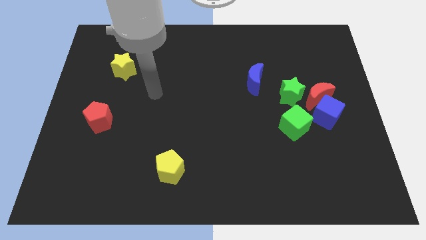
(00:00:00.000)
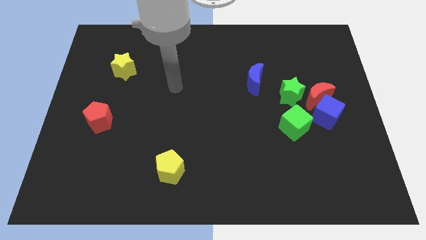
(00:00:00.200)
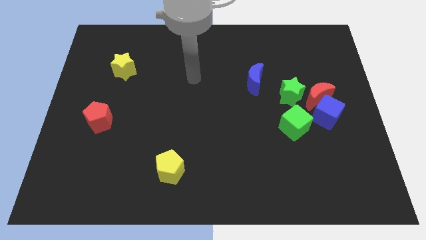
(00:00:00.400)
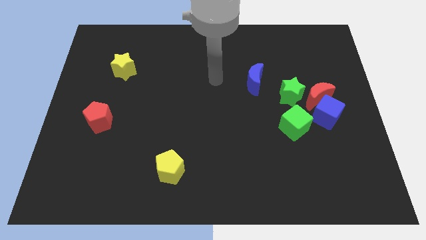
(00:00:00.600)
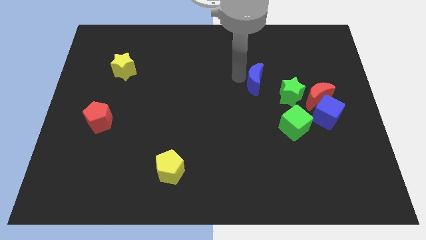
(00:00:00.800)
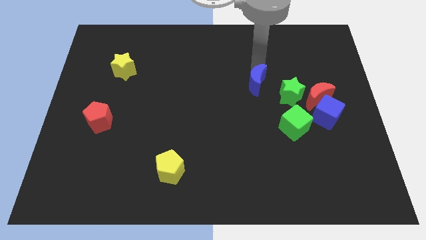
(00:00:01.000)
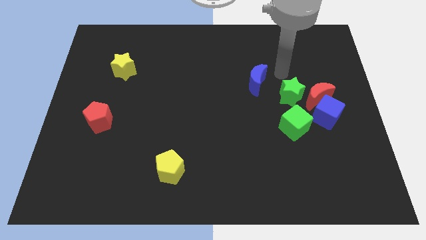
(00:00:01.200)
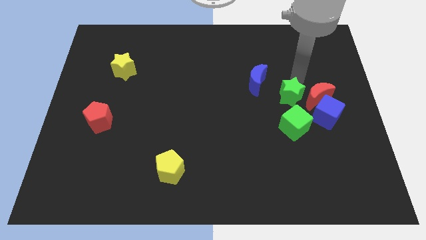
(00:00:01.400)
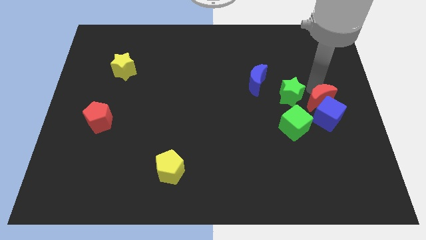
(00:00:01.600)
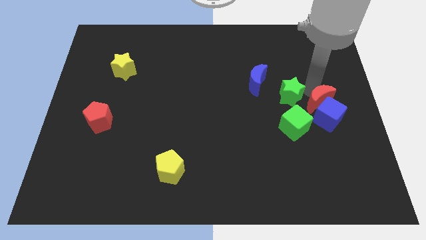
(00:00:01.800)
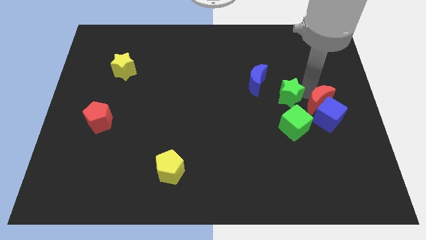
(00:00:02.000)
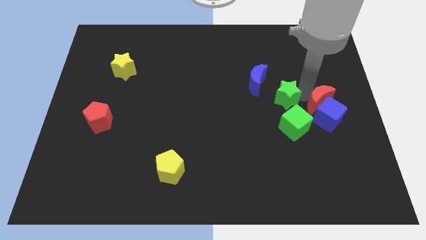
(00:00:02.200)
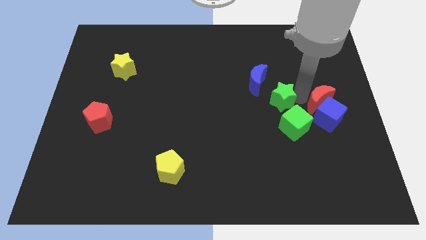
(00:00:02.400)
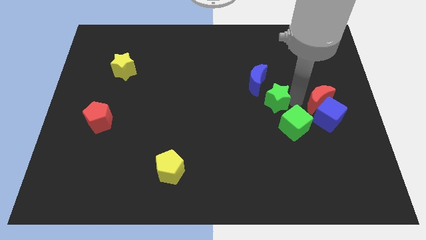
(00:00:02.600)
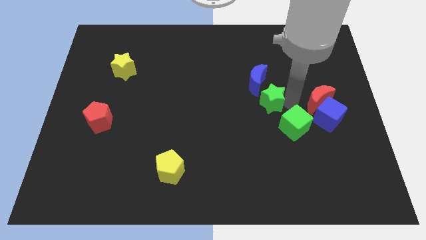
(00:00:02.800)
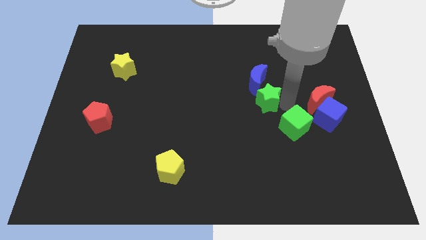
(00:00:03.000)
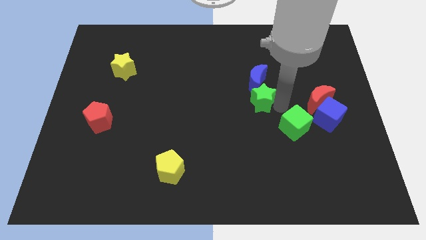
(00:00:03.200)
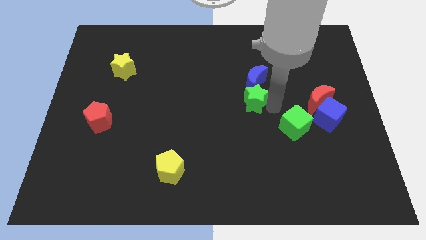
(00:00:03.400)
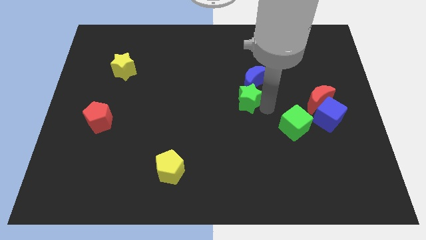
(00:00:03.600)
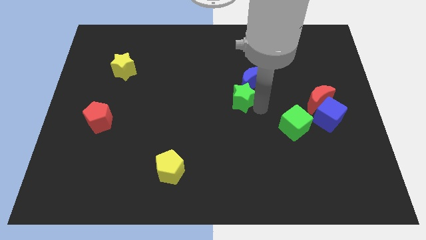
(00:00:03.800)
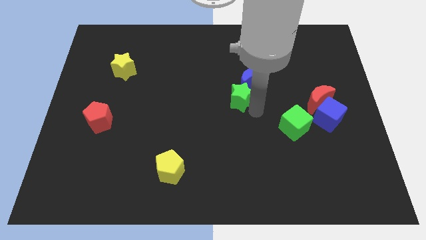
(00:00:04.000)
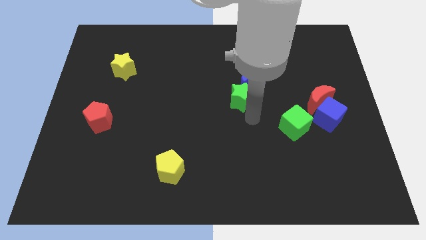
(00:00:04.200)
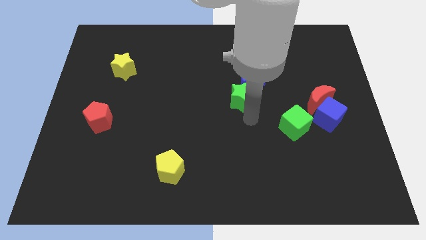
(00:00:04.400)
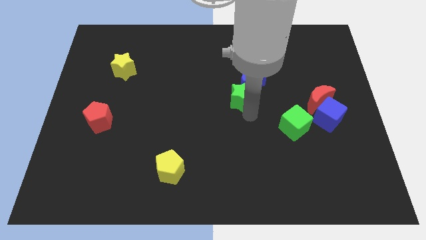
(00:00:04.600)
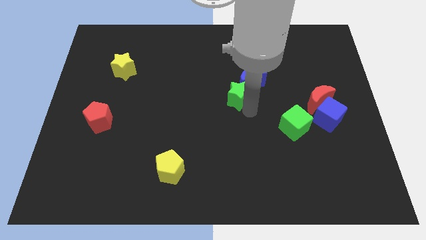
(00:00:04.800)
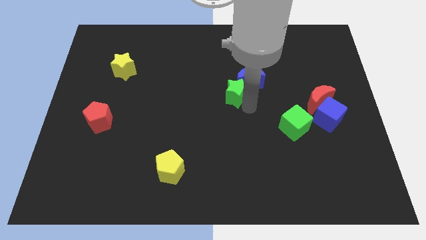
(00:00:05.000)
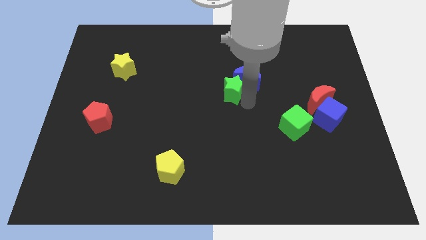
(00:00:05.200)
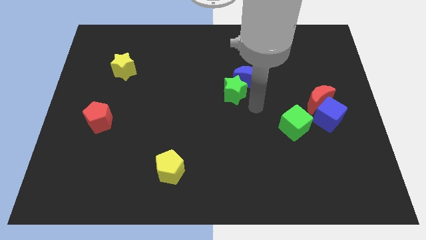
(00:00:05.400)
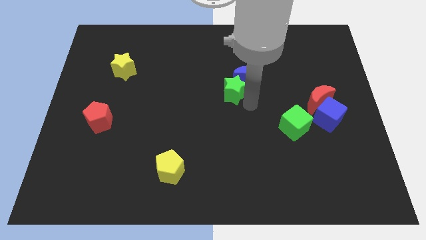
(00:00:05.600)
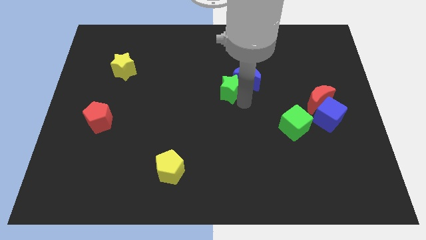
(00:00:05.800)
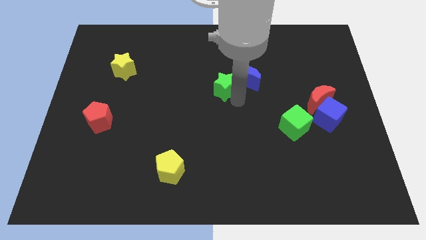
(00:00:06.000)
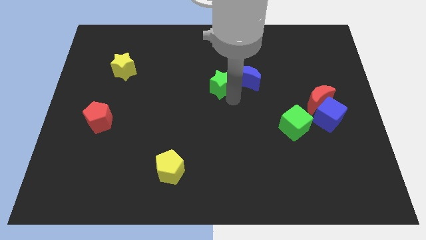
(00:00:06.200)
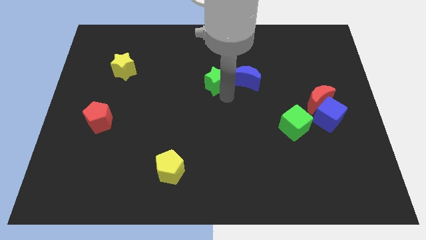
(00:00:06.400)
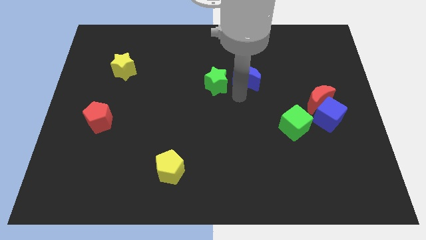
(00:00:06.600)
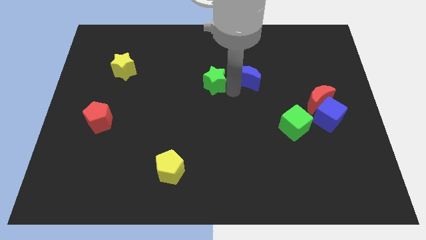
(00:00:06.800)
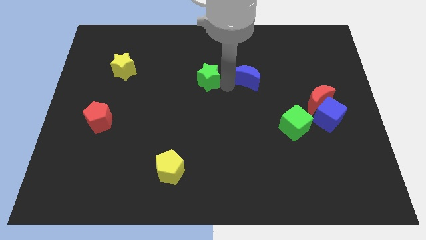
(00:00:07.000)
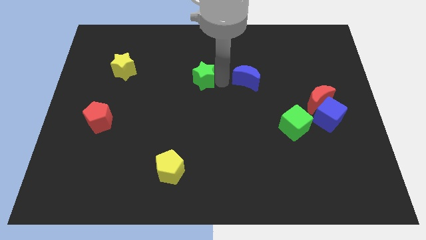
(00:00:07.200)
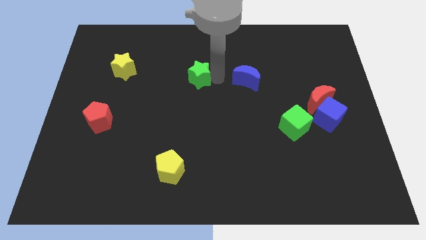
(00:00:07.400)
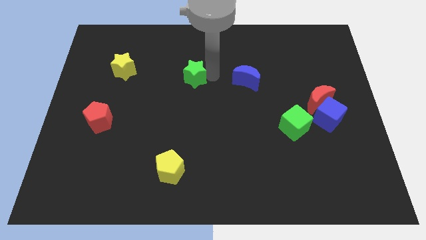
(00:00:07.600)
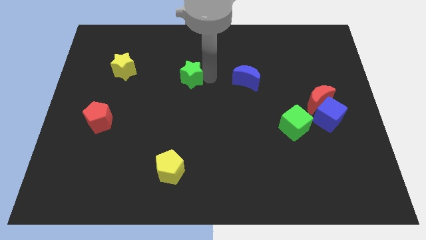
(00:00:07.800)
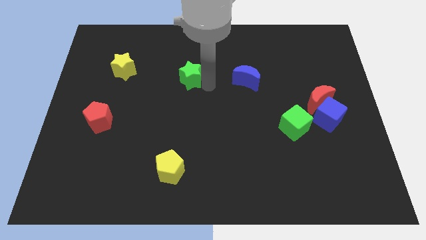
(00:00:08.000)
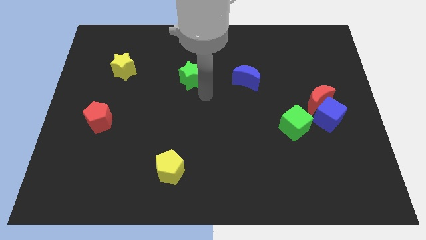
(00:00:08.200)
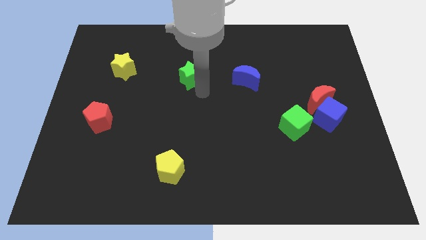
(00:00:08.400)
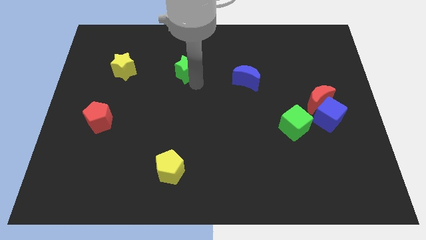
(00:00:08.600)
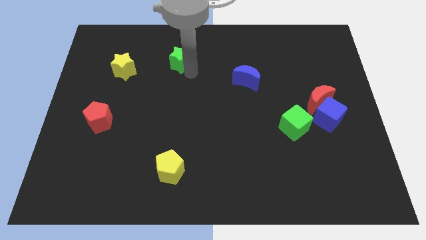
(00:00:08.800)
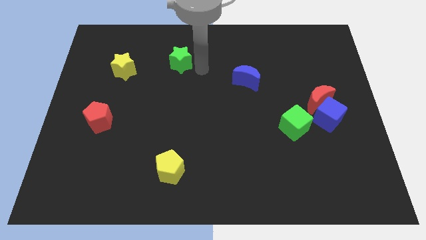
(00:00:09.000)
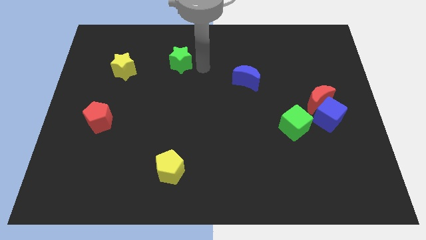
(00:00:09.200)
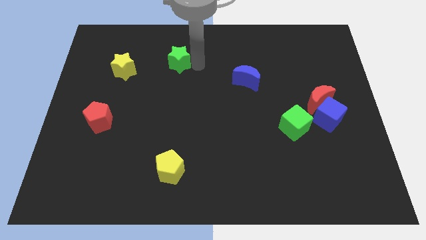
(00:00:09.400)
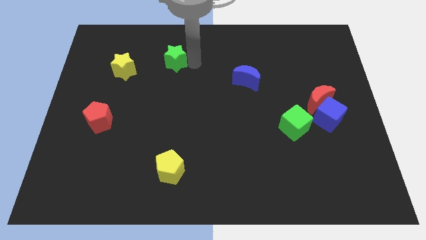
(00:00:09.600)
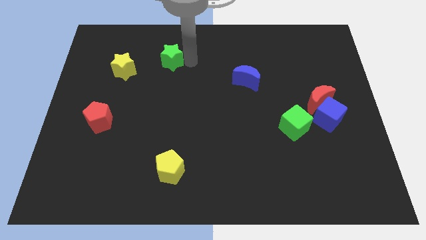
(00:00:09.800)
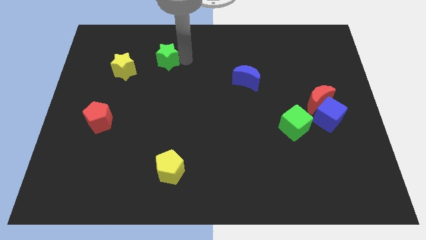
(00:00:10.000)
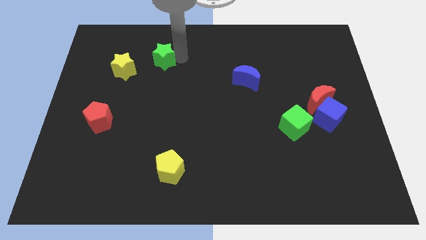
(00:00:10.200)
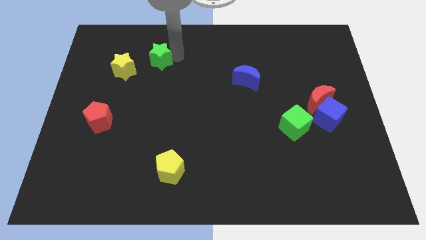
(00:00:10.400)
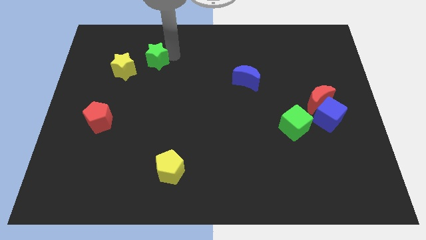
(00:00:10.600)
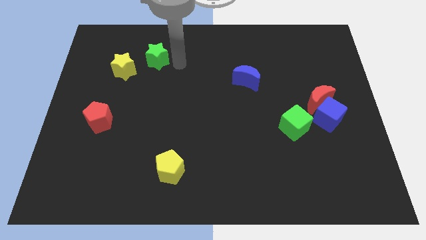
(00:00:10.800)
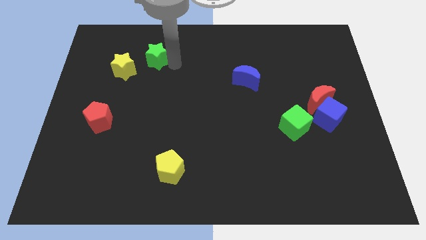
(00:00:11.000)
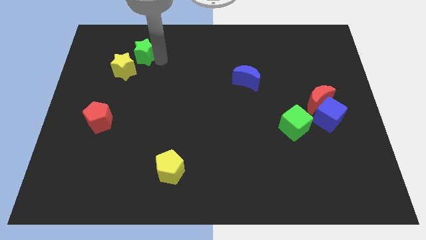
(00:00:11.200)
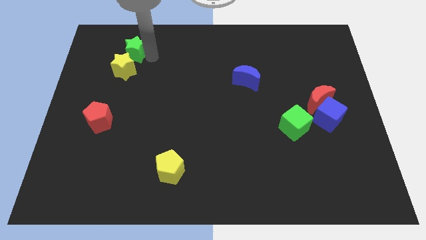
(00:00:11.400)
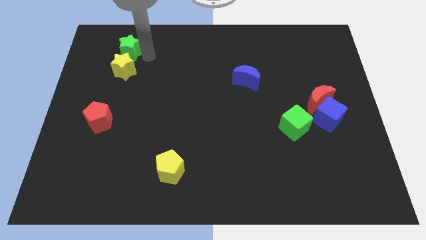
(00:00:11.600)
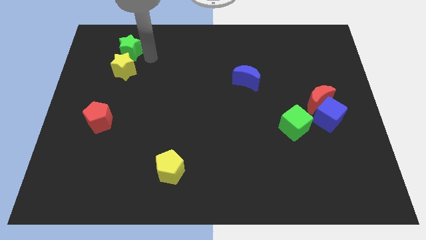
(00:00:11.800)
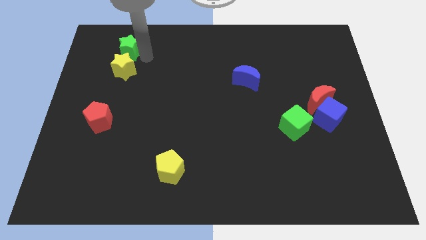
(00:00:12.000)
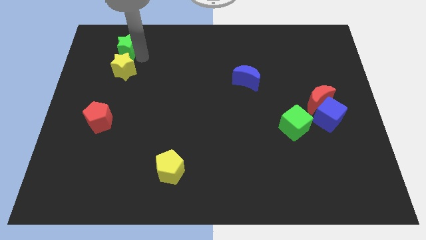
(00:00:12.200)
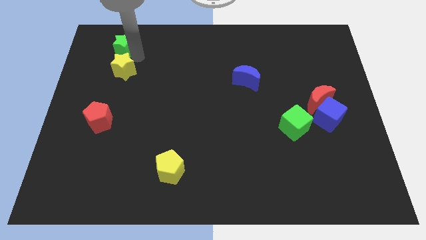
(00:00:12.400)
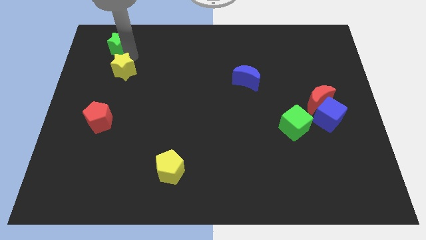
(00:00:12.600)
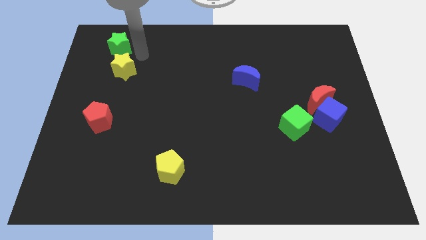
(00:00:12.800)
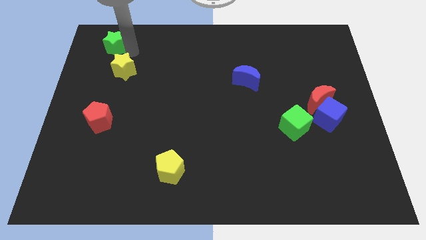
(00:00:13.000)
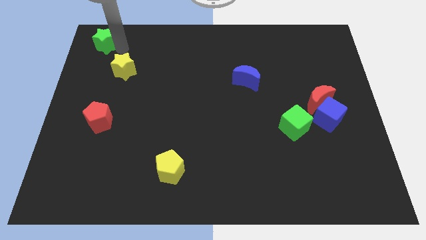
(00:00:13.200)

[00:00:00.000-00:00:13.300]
push the green star to the upper left corner
